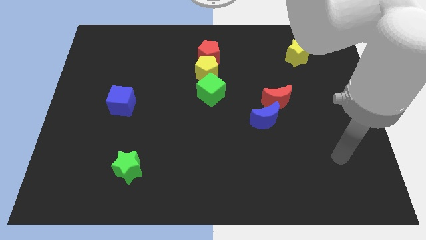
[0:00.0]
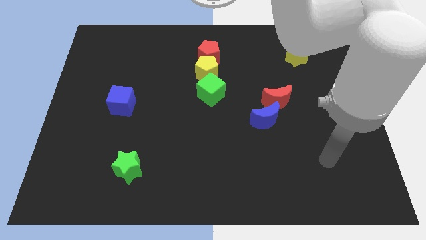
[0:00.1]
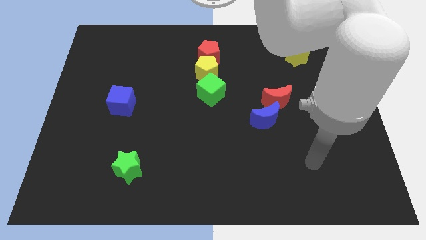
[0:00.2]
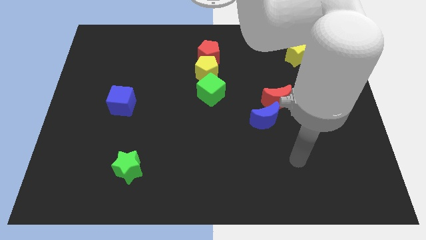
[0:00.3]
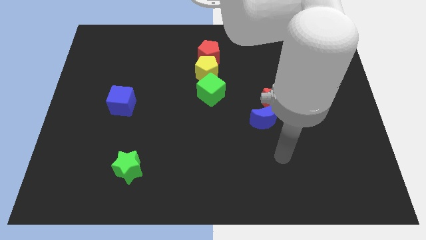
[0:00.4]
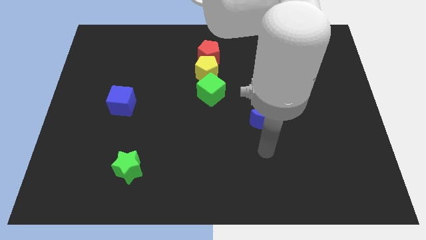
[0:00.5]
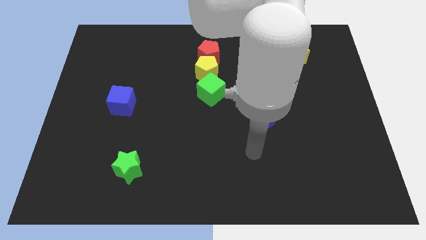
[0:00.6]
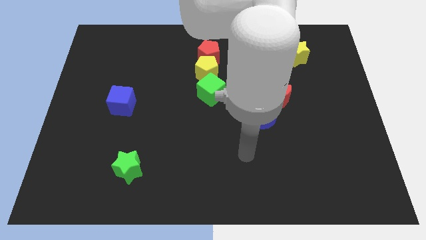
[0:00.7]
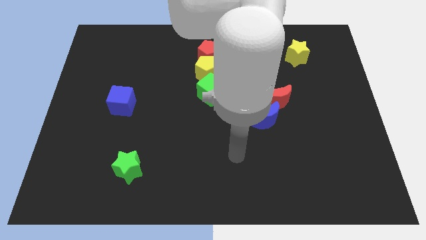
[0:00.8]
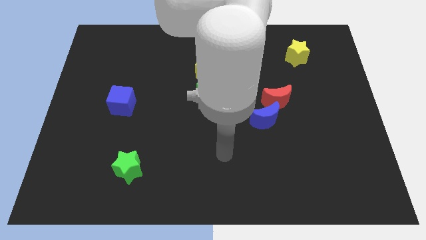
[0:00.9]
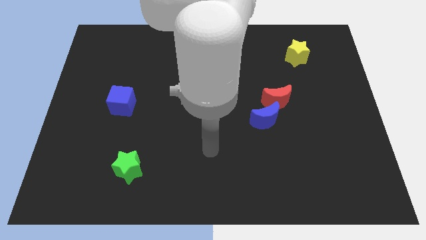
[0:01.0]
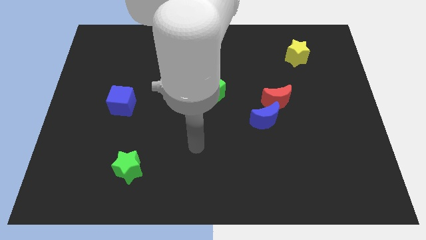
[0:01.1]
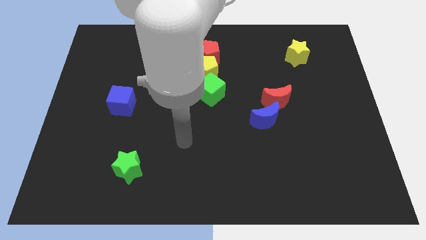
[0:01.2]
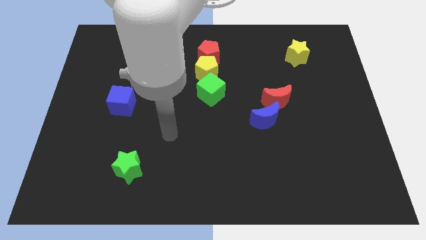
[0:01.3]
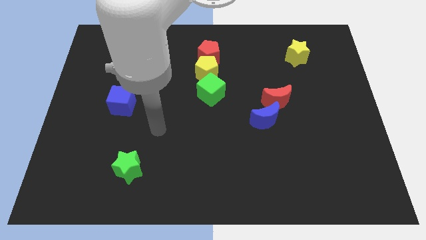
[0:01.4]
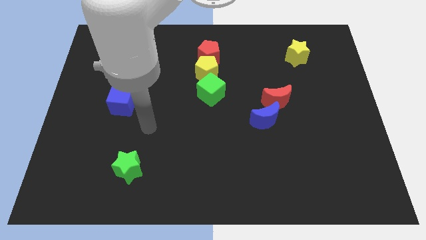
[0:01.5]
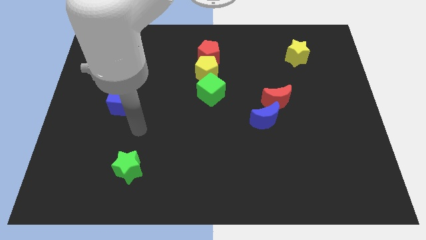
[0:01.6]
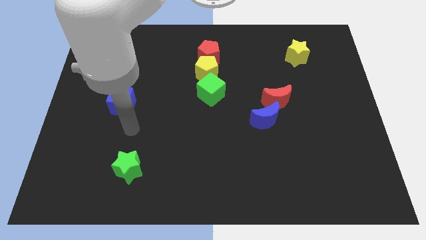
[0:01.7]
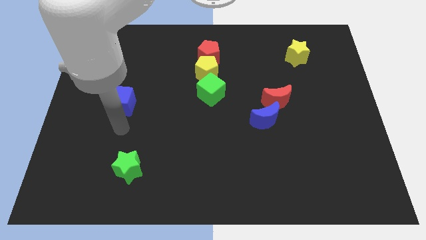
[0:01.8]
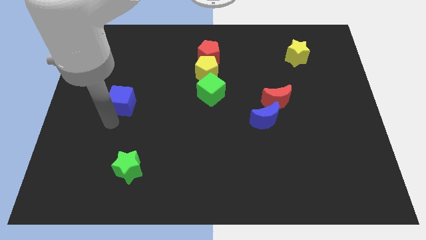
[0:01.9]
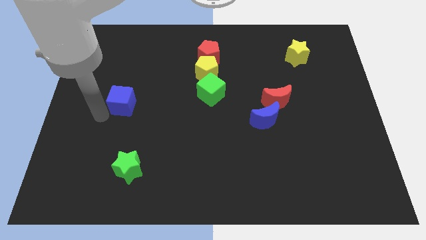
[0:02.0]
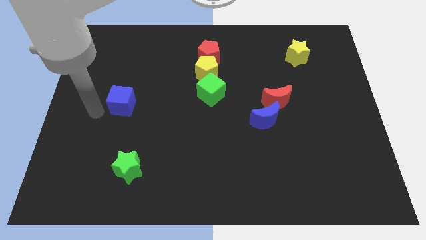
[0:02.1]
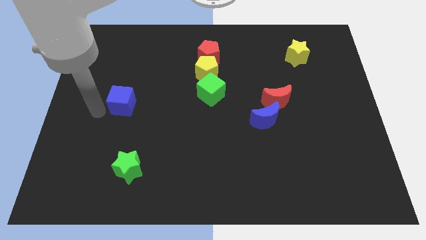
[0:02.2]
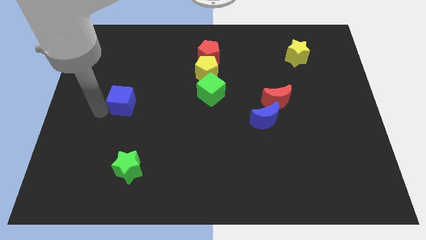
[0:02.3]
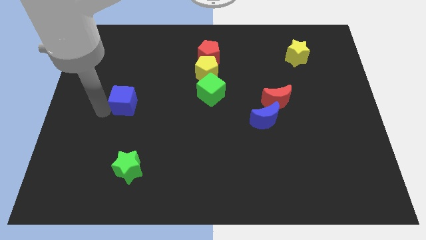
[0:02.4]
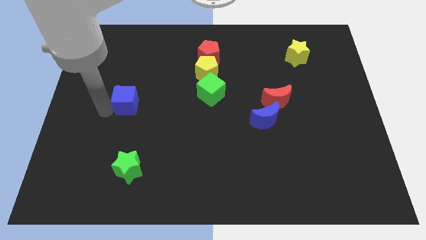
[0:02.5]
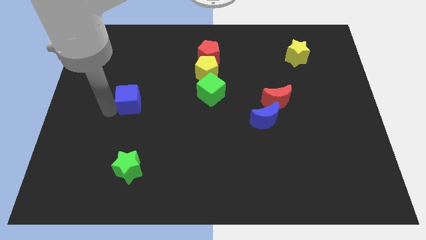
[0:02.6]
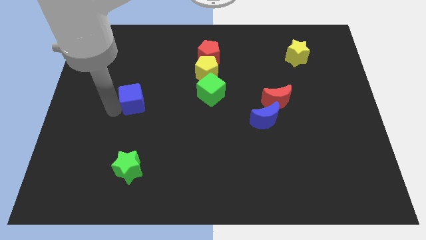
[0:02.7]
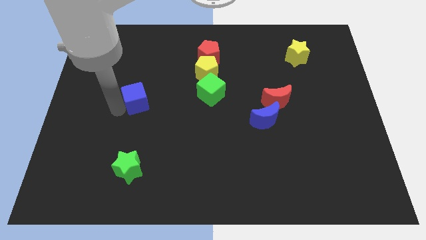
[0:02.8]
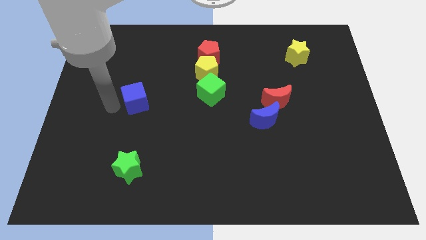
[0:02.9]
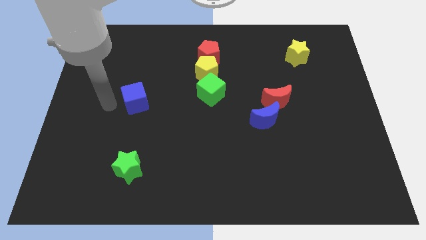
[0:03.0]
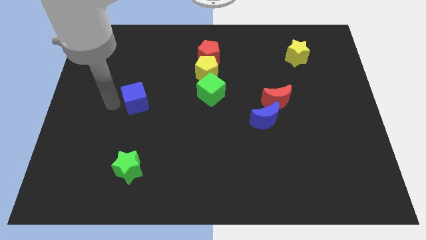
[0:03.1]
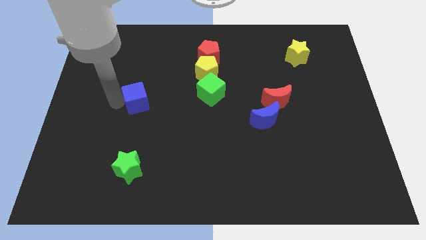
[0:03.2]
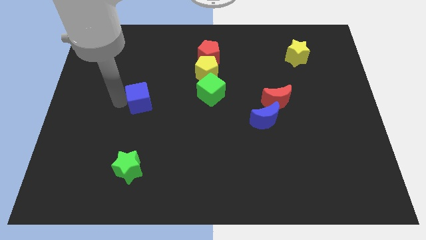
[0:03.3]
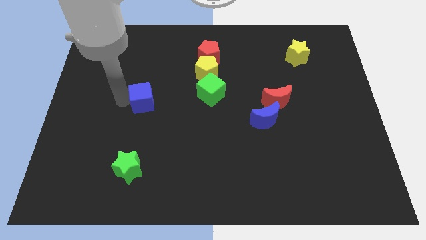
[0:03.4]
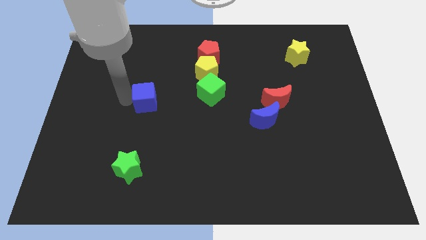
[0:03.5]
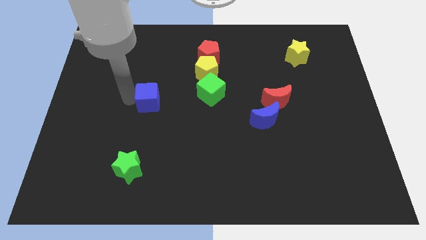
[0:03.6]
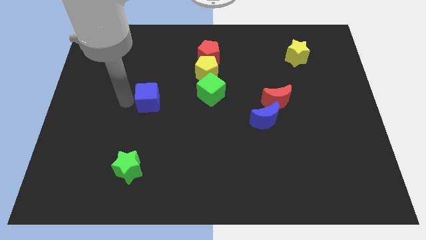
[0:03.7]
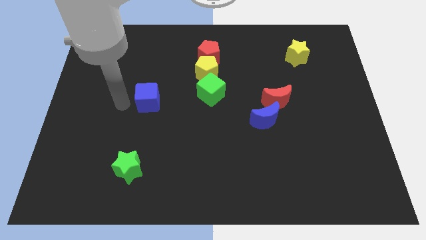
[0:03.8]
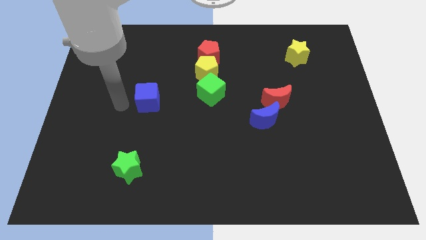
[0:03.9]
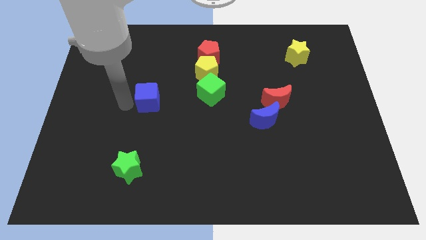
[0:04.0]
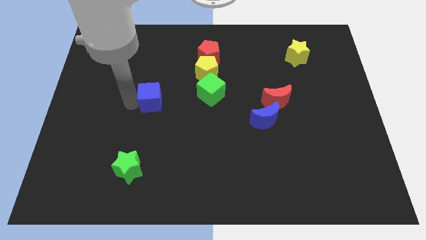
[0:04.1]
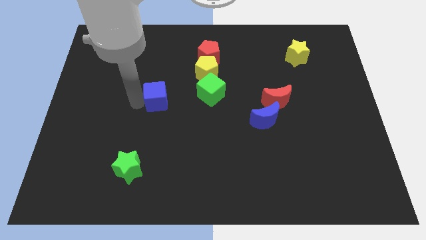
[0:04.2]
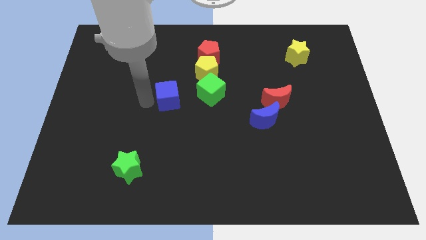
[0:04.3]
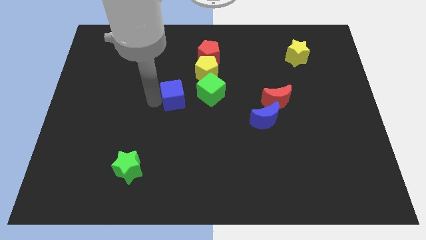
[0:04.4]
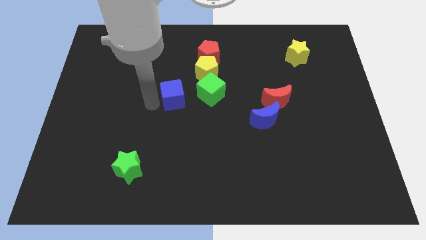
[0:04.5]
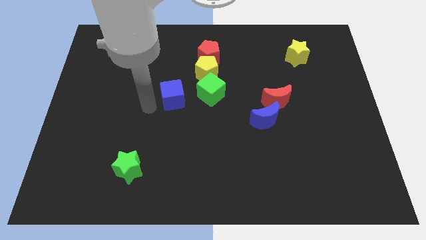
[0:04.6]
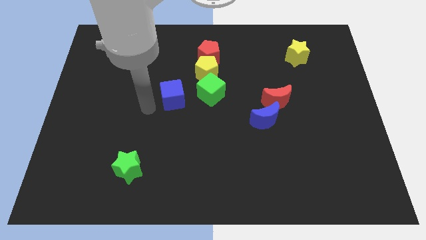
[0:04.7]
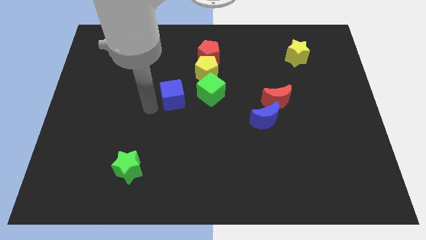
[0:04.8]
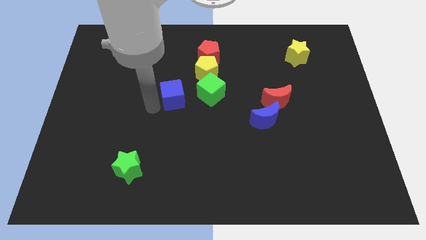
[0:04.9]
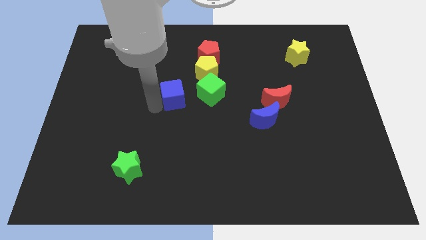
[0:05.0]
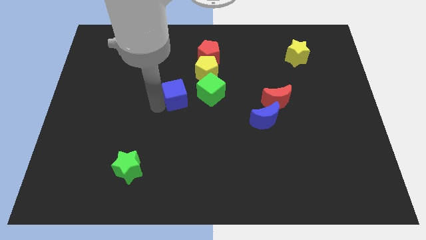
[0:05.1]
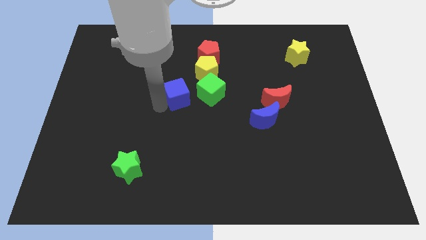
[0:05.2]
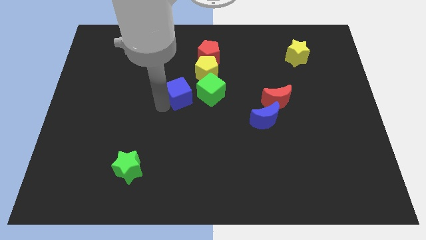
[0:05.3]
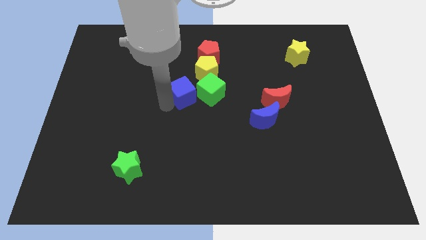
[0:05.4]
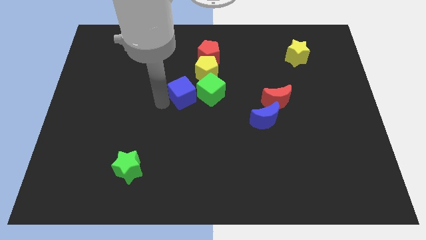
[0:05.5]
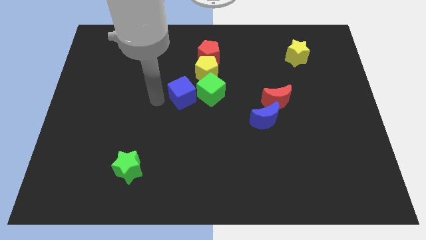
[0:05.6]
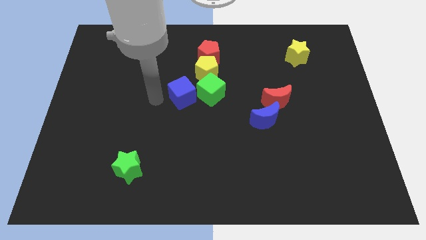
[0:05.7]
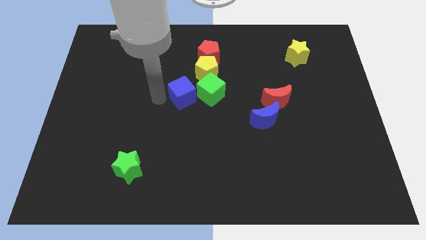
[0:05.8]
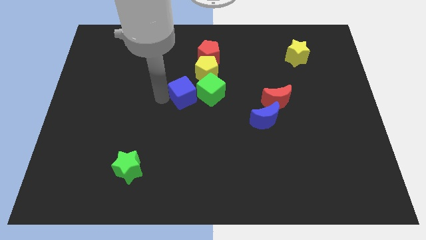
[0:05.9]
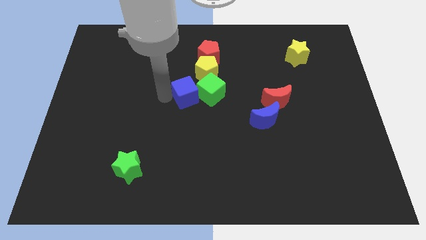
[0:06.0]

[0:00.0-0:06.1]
put the blue cube towards the green cube

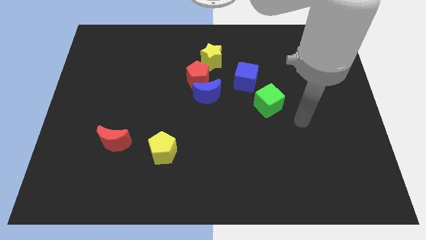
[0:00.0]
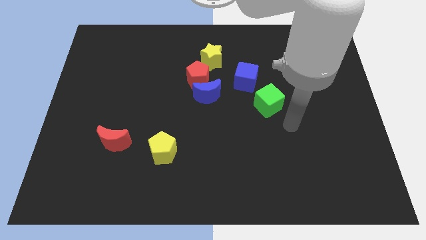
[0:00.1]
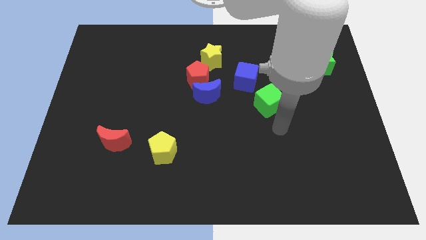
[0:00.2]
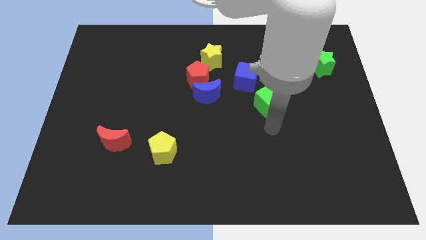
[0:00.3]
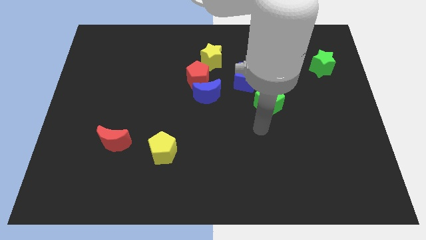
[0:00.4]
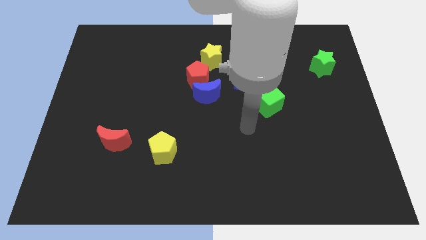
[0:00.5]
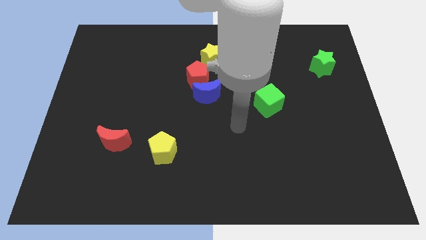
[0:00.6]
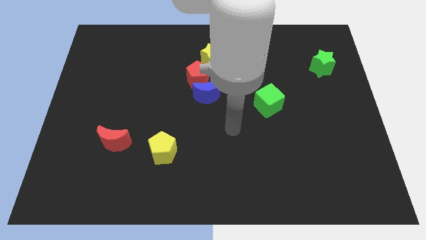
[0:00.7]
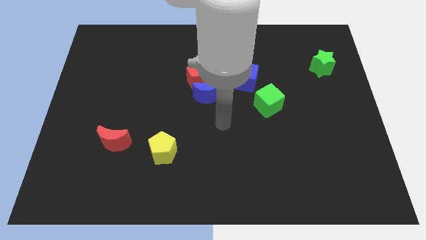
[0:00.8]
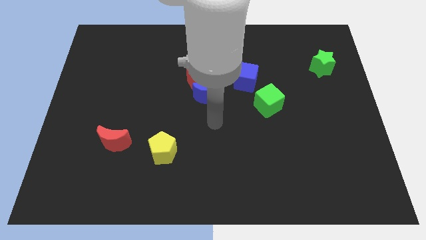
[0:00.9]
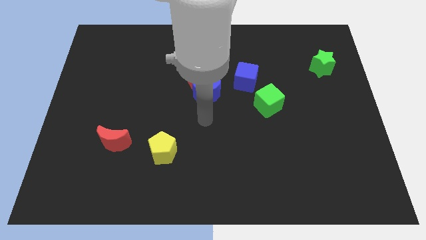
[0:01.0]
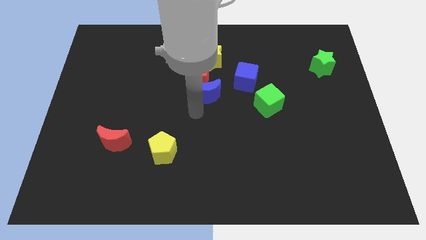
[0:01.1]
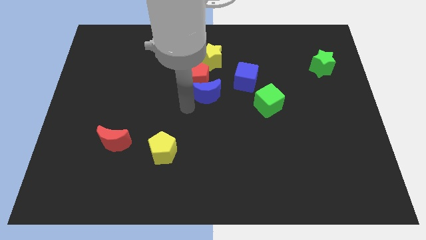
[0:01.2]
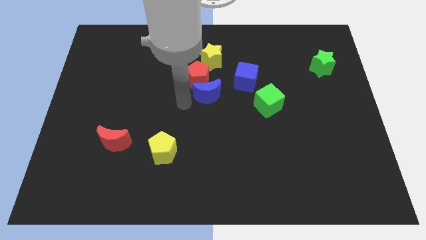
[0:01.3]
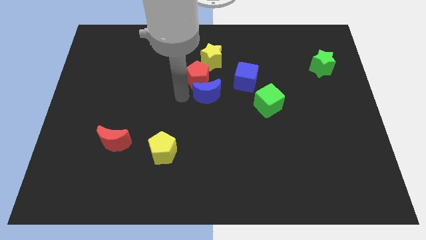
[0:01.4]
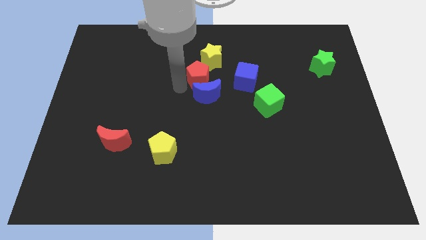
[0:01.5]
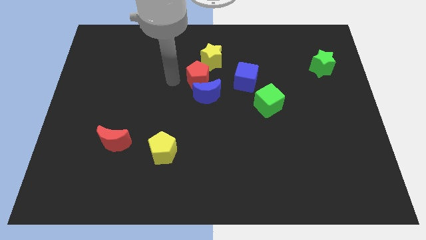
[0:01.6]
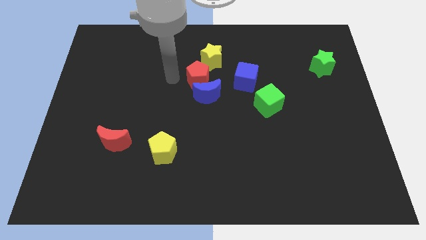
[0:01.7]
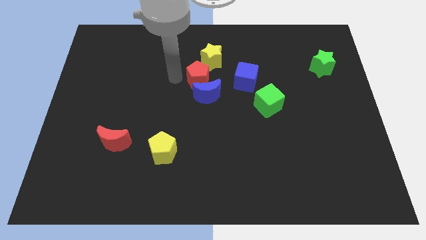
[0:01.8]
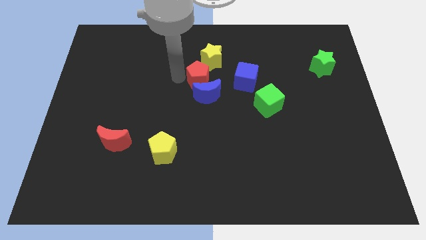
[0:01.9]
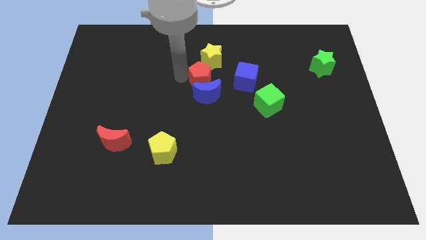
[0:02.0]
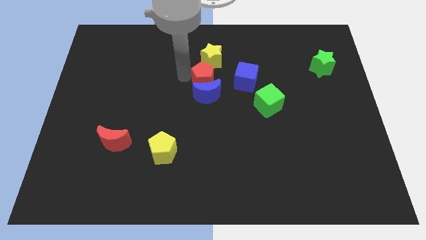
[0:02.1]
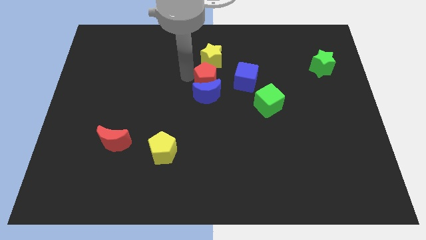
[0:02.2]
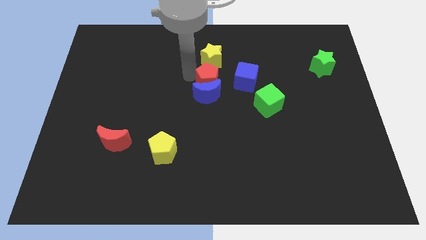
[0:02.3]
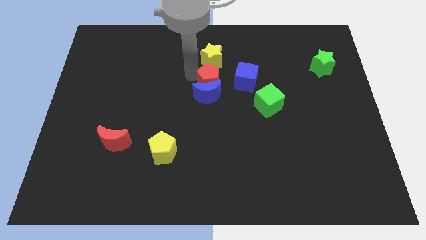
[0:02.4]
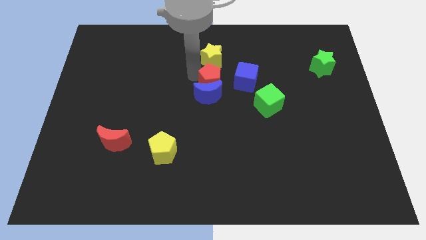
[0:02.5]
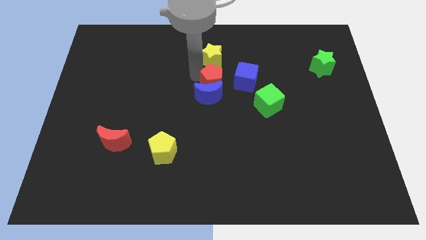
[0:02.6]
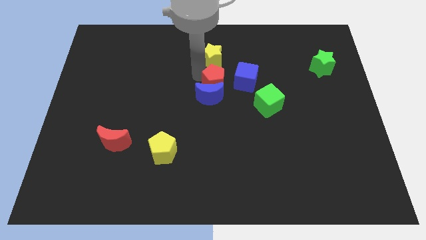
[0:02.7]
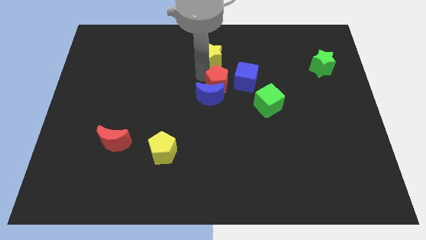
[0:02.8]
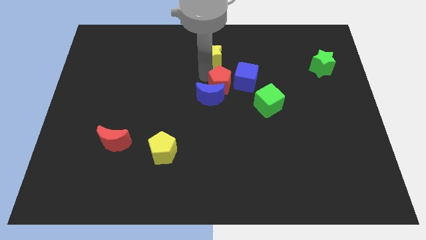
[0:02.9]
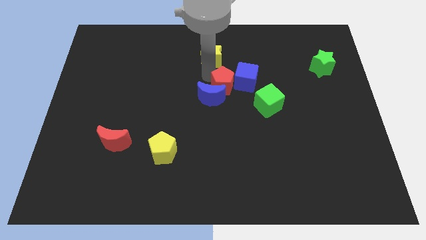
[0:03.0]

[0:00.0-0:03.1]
put the red pentagon towards the blue cube
